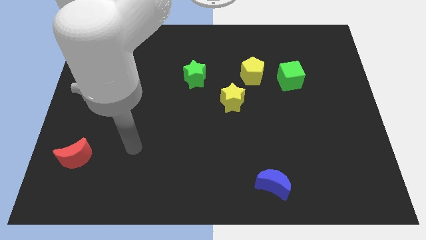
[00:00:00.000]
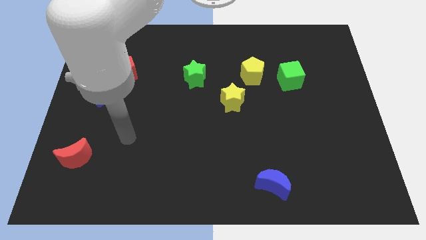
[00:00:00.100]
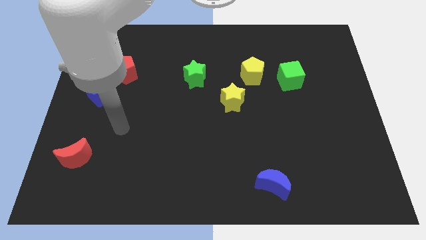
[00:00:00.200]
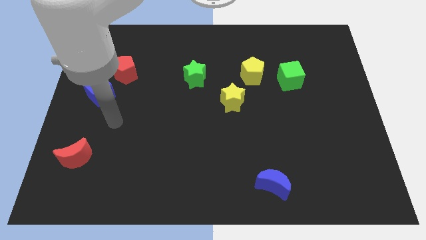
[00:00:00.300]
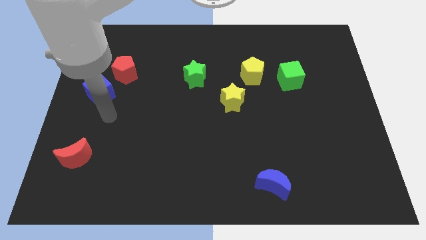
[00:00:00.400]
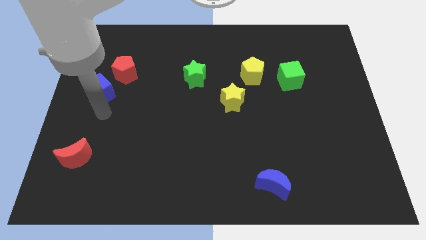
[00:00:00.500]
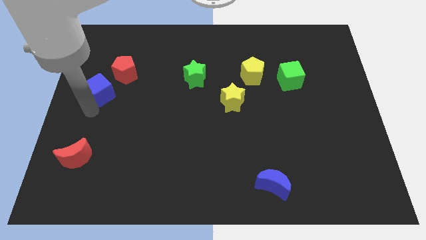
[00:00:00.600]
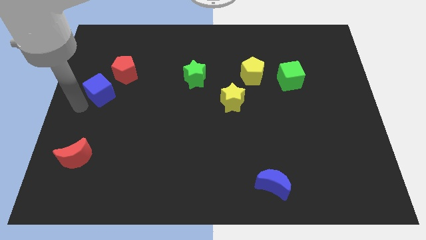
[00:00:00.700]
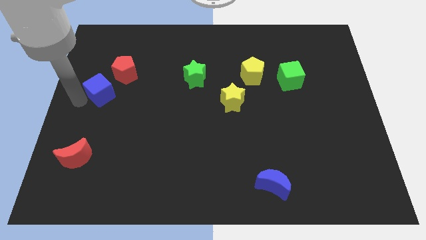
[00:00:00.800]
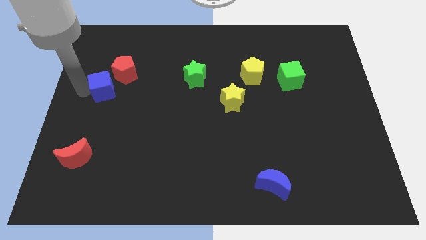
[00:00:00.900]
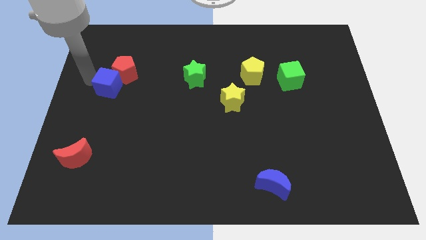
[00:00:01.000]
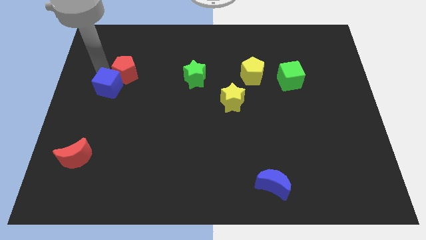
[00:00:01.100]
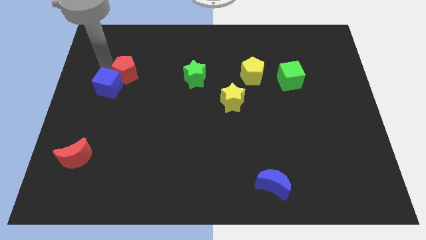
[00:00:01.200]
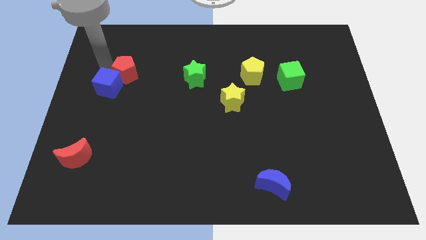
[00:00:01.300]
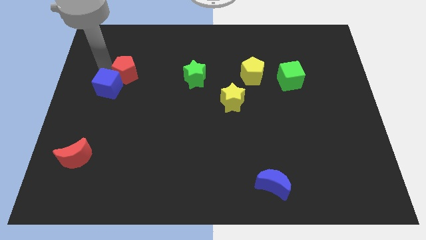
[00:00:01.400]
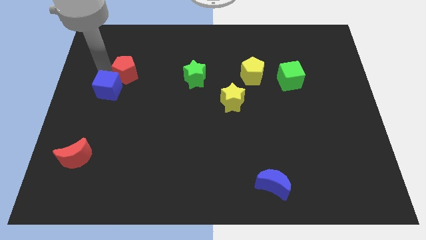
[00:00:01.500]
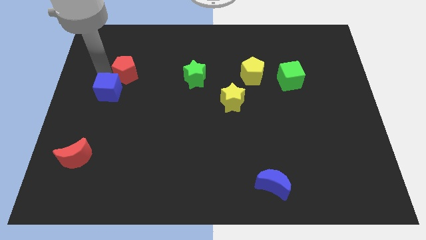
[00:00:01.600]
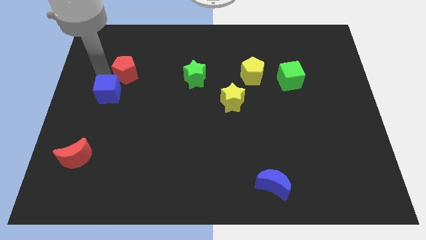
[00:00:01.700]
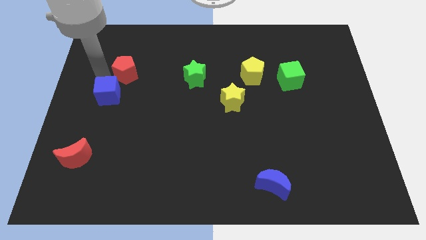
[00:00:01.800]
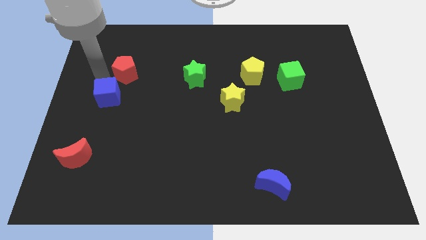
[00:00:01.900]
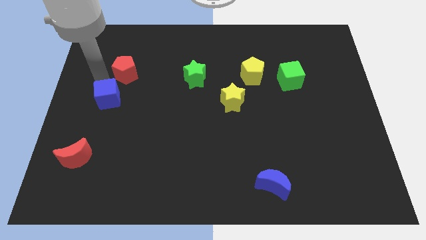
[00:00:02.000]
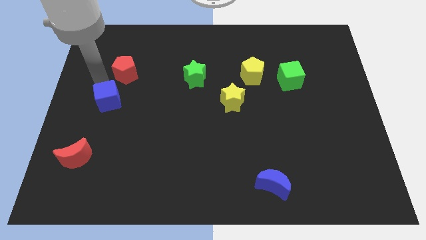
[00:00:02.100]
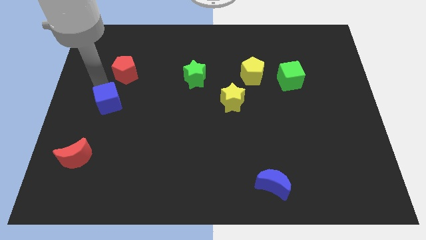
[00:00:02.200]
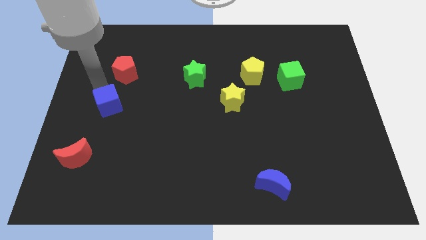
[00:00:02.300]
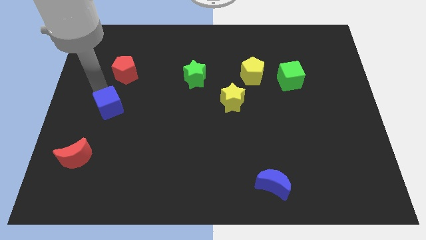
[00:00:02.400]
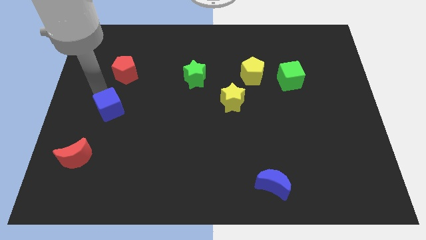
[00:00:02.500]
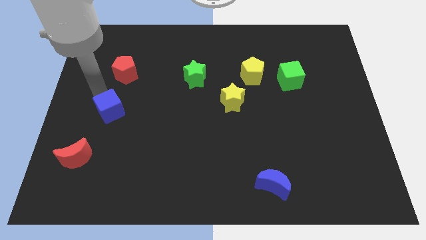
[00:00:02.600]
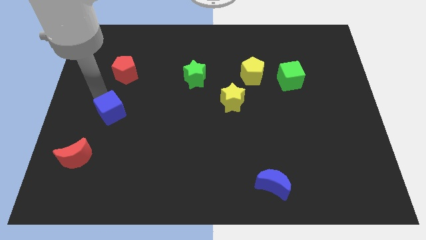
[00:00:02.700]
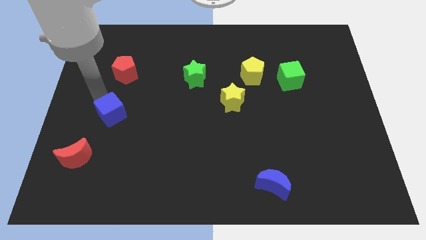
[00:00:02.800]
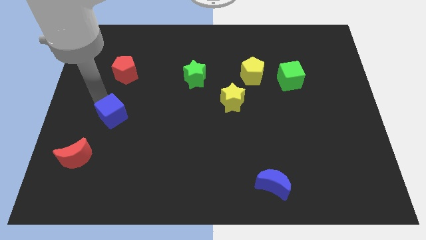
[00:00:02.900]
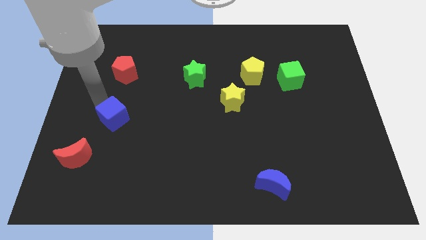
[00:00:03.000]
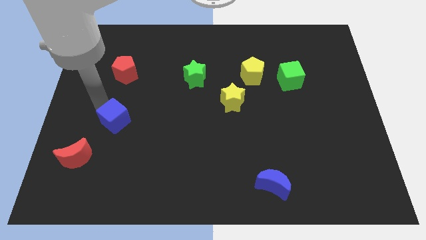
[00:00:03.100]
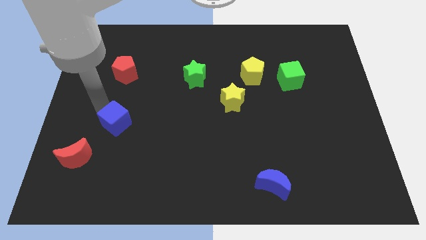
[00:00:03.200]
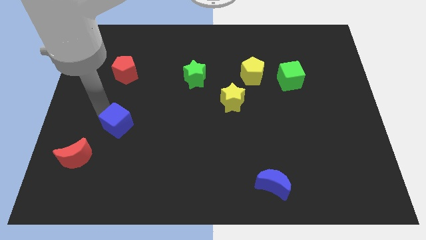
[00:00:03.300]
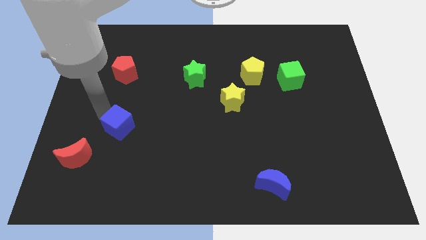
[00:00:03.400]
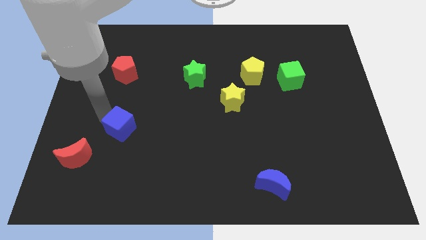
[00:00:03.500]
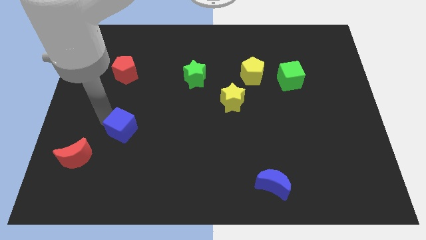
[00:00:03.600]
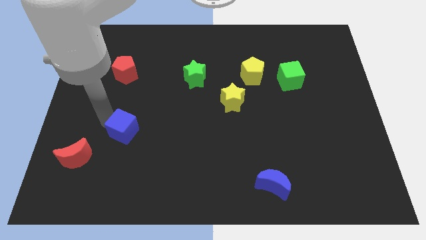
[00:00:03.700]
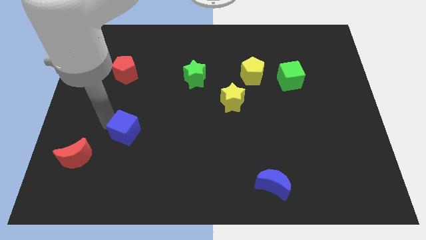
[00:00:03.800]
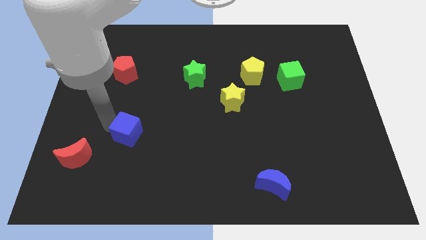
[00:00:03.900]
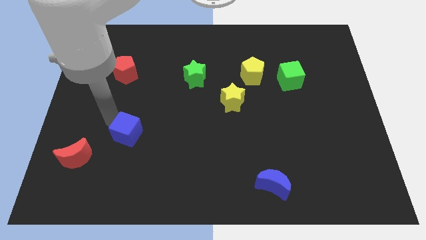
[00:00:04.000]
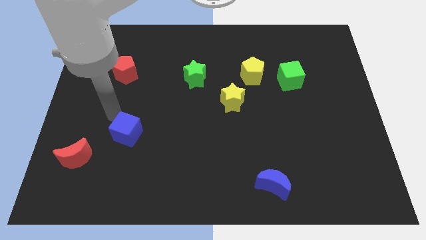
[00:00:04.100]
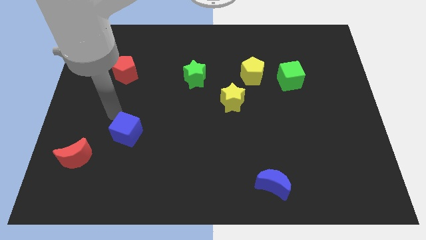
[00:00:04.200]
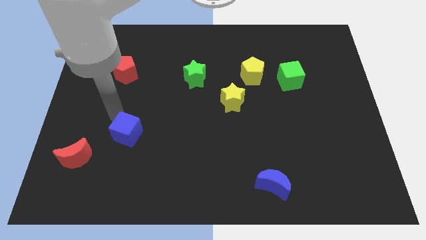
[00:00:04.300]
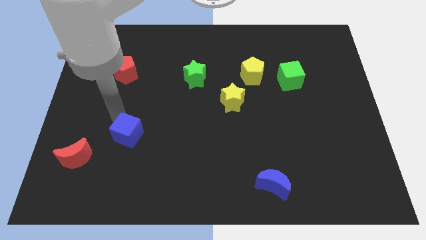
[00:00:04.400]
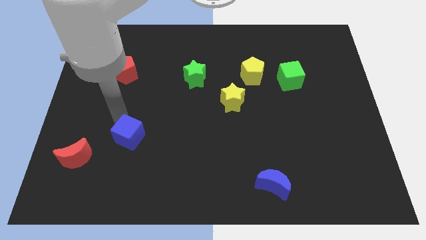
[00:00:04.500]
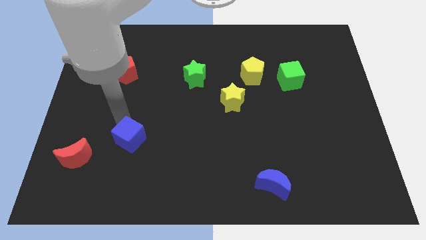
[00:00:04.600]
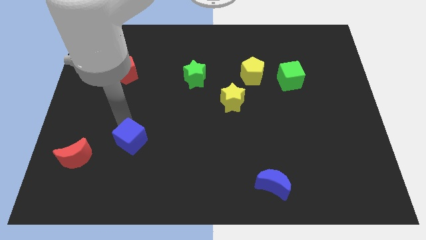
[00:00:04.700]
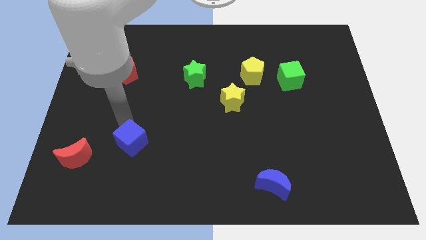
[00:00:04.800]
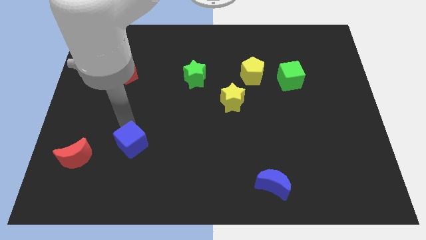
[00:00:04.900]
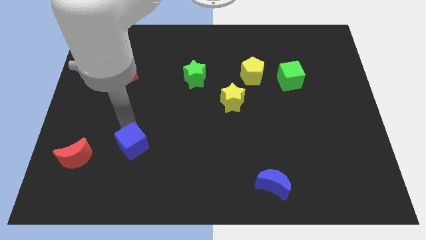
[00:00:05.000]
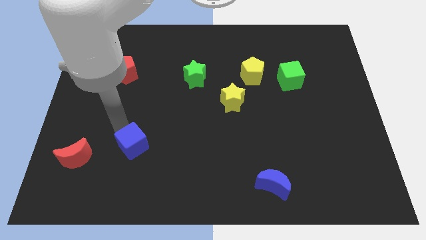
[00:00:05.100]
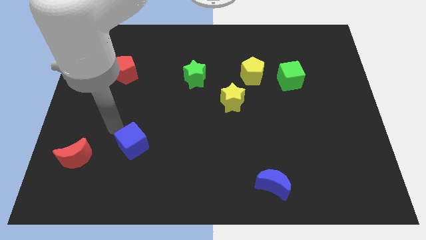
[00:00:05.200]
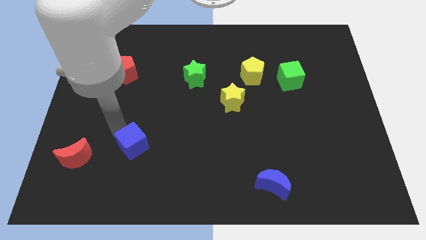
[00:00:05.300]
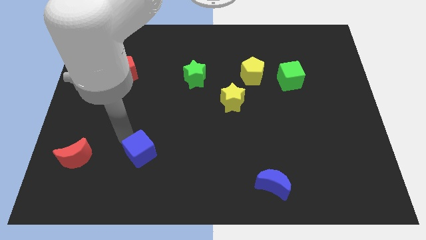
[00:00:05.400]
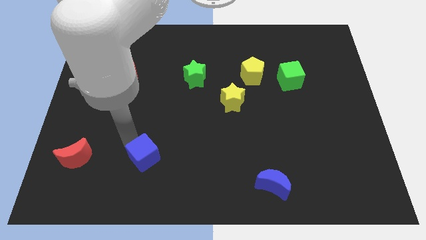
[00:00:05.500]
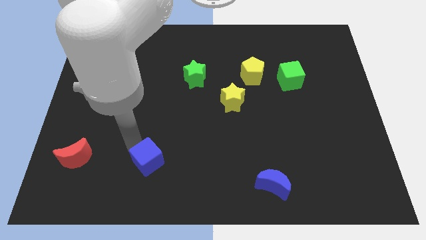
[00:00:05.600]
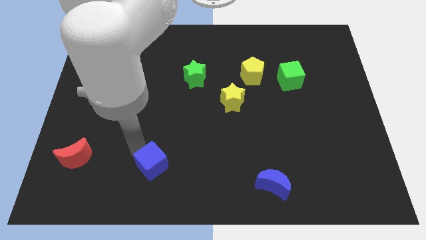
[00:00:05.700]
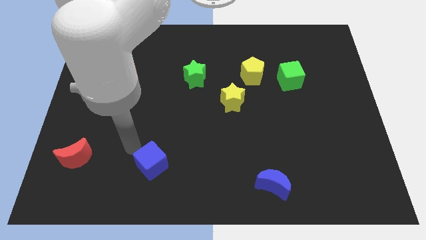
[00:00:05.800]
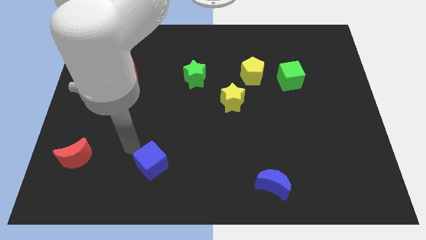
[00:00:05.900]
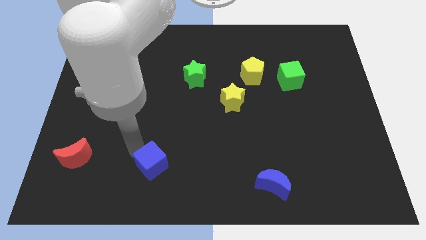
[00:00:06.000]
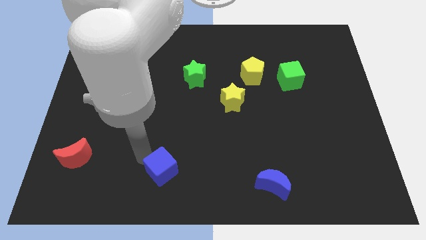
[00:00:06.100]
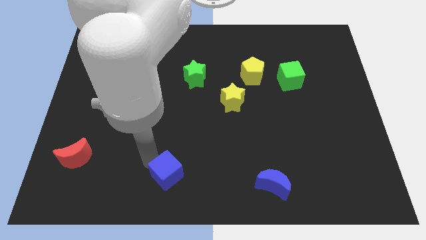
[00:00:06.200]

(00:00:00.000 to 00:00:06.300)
slide the blue cube to the bottom

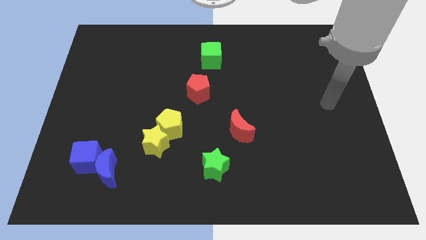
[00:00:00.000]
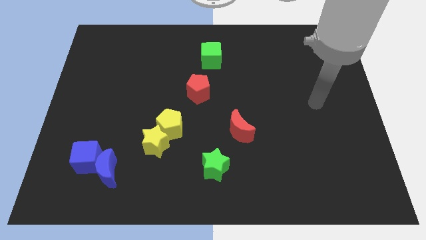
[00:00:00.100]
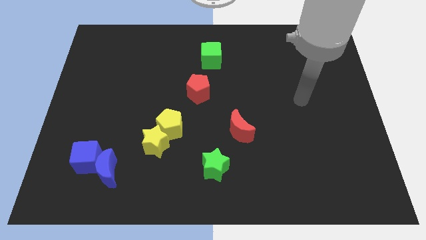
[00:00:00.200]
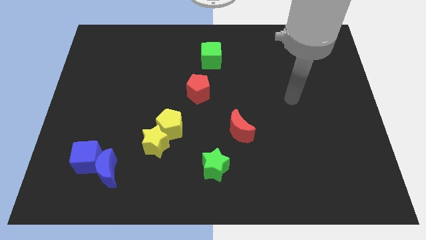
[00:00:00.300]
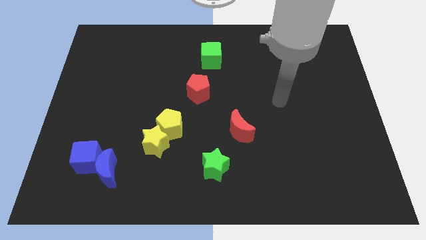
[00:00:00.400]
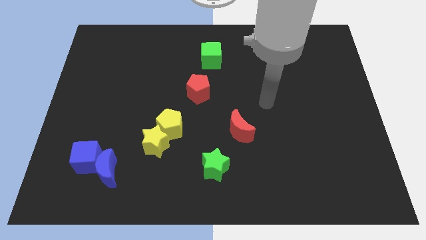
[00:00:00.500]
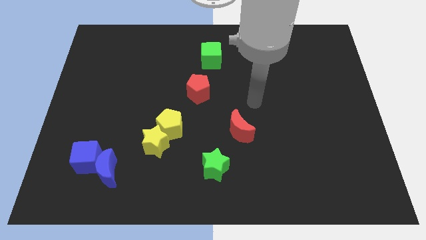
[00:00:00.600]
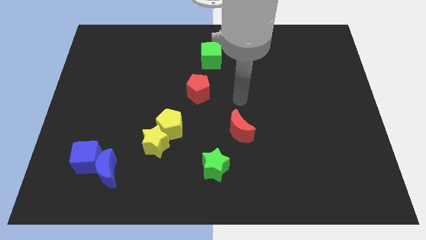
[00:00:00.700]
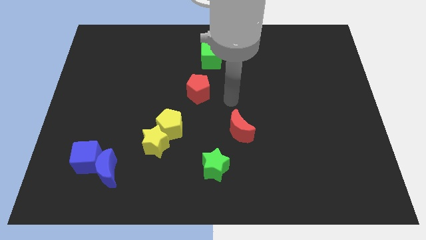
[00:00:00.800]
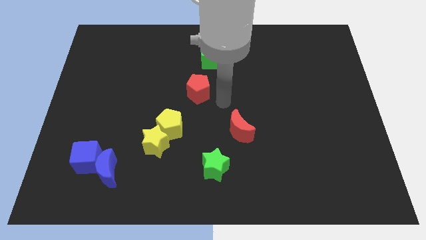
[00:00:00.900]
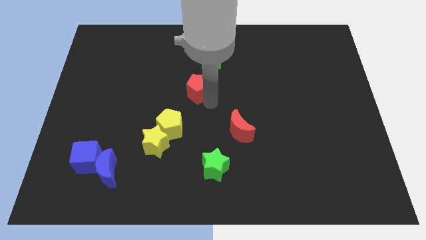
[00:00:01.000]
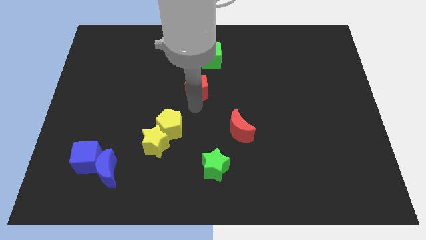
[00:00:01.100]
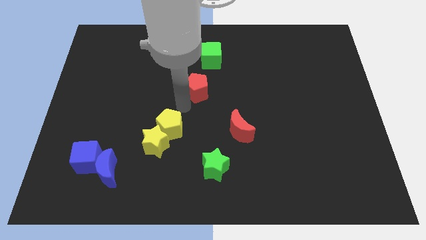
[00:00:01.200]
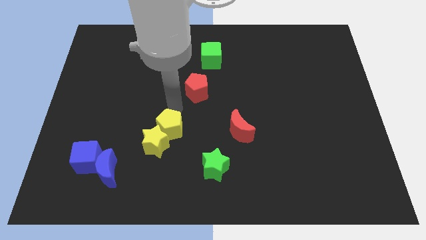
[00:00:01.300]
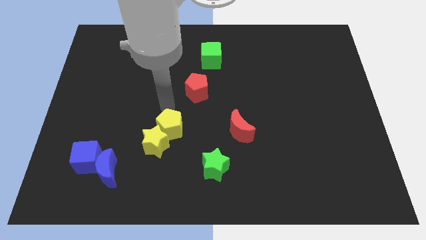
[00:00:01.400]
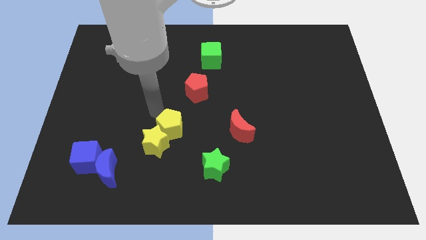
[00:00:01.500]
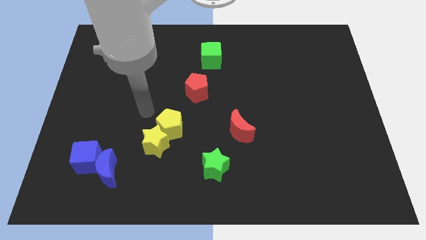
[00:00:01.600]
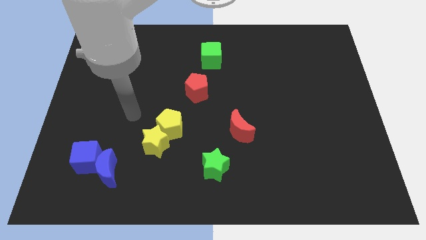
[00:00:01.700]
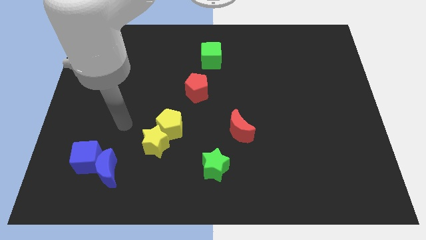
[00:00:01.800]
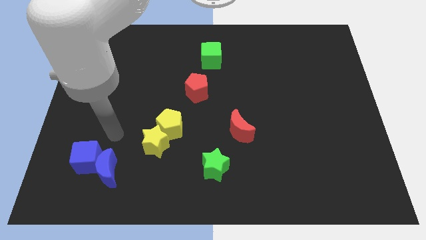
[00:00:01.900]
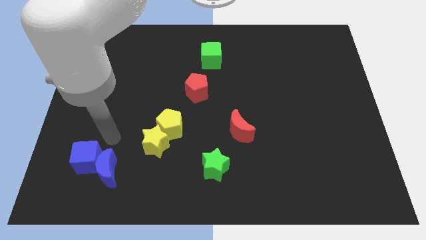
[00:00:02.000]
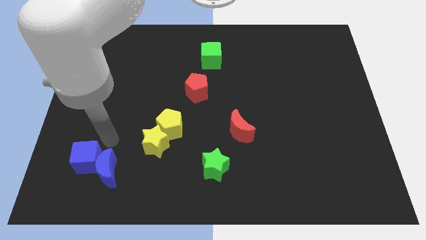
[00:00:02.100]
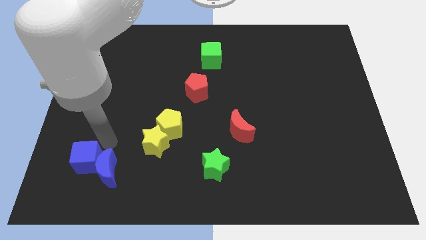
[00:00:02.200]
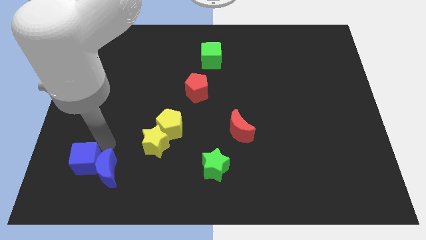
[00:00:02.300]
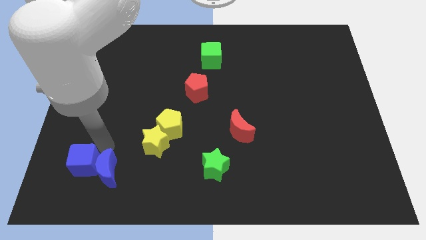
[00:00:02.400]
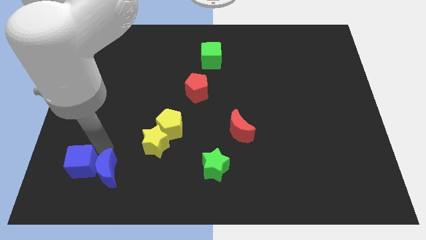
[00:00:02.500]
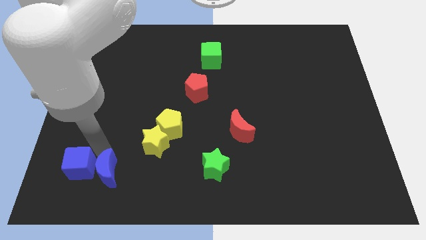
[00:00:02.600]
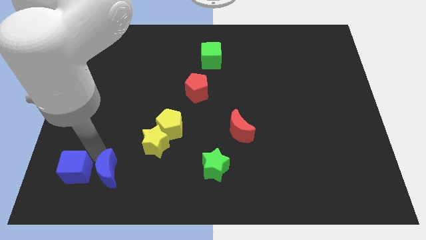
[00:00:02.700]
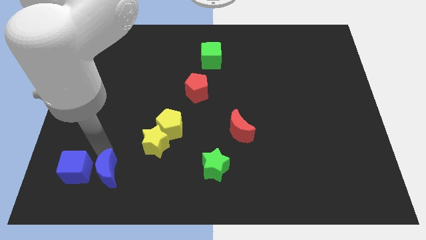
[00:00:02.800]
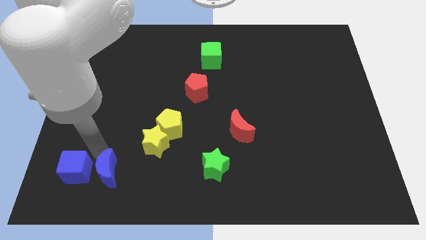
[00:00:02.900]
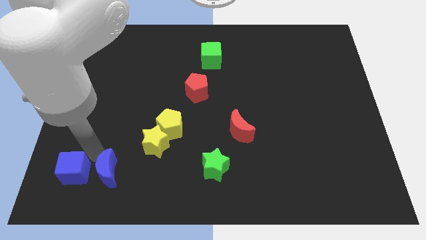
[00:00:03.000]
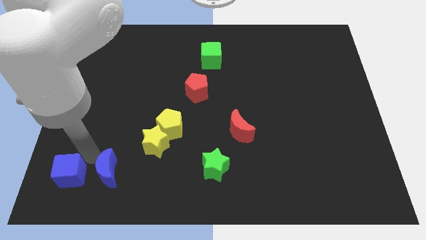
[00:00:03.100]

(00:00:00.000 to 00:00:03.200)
move the blue cube to the bottom left of the board
